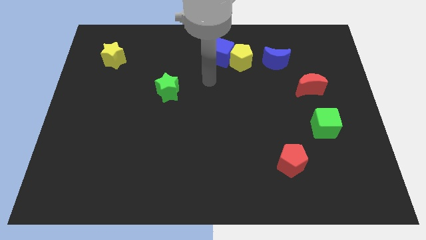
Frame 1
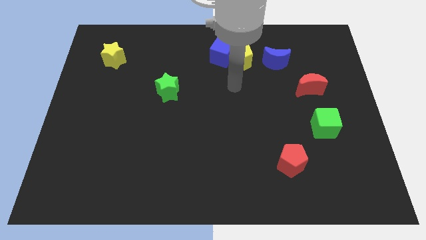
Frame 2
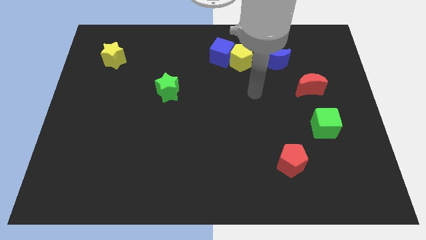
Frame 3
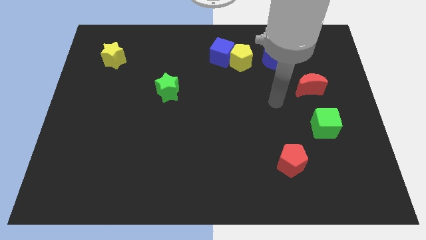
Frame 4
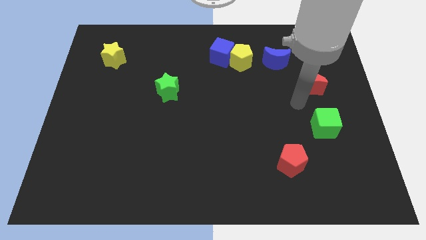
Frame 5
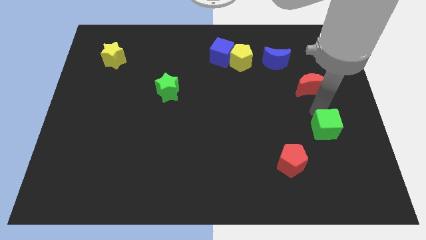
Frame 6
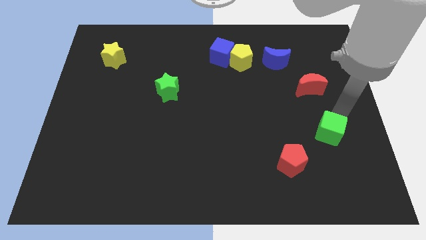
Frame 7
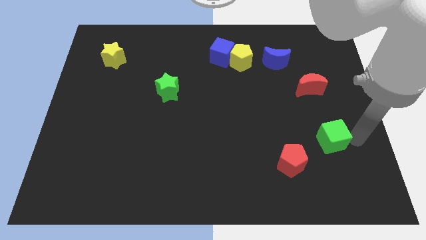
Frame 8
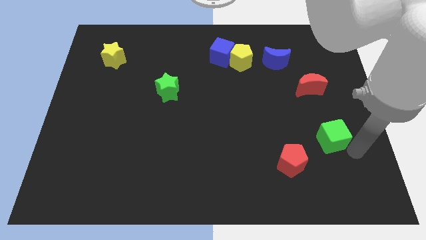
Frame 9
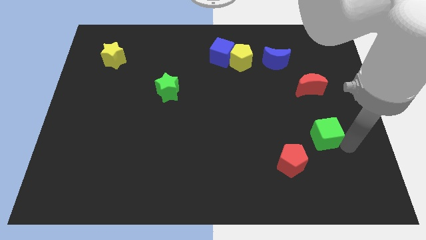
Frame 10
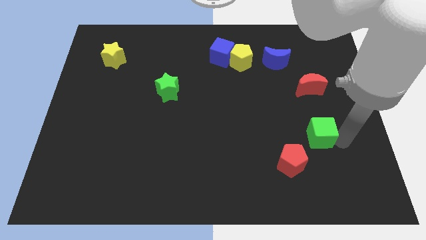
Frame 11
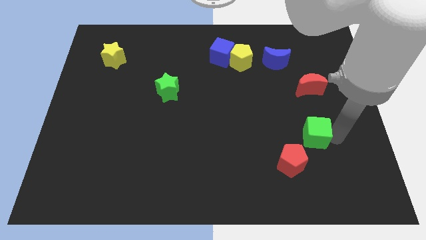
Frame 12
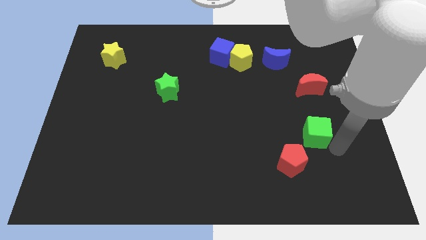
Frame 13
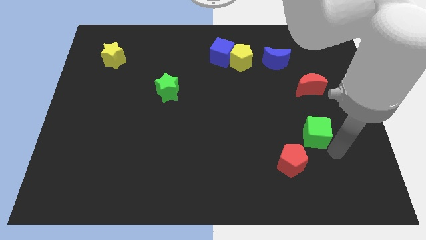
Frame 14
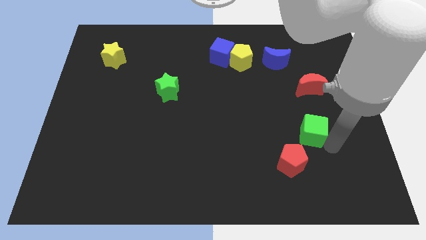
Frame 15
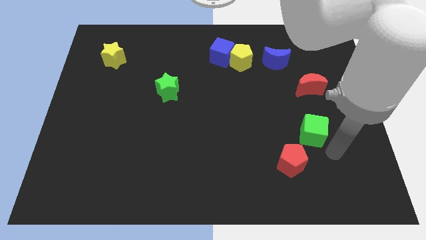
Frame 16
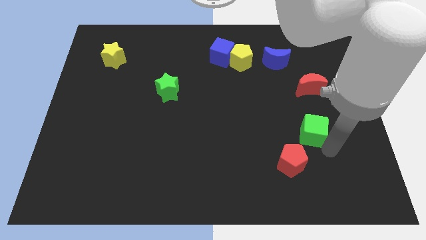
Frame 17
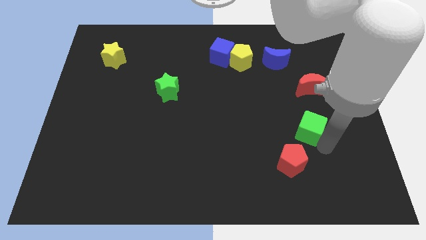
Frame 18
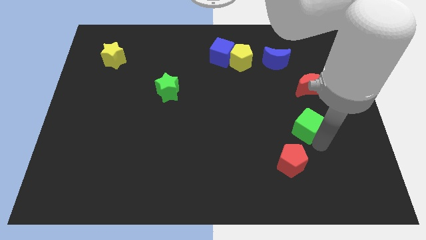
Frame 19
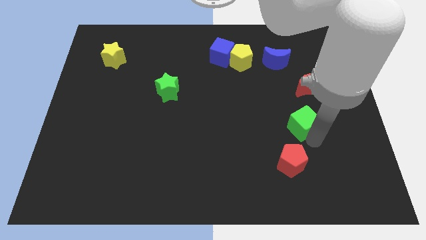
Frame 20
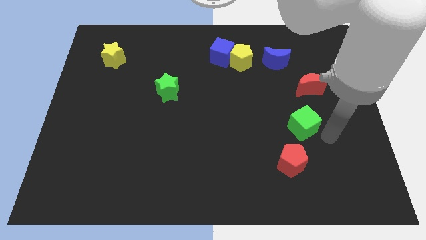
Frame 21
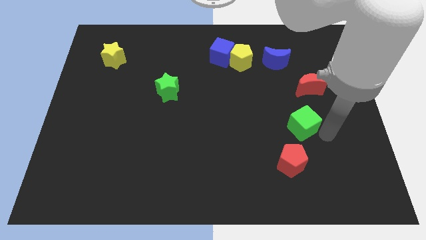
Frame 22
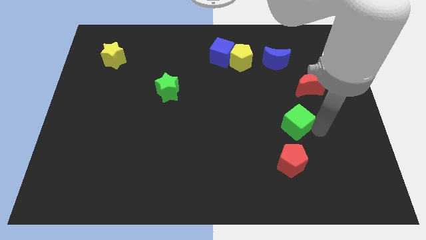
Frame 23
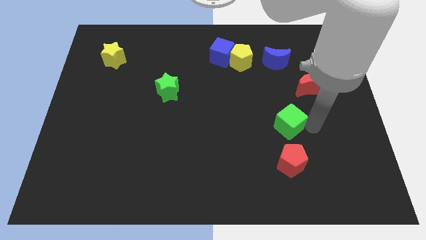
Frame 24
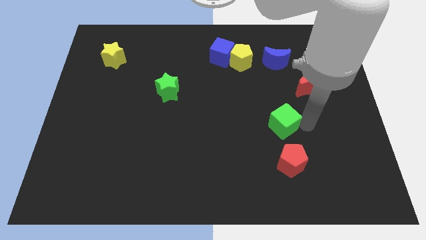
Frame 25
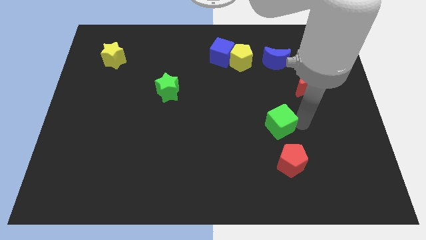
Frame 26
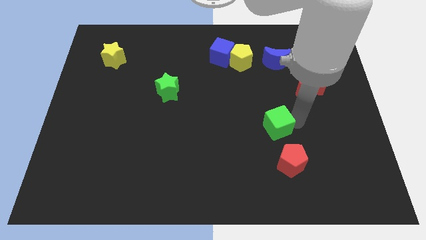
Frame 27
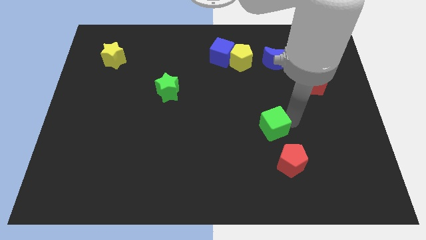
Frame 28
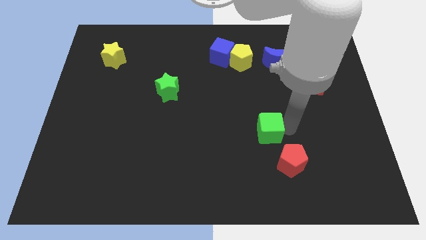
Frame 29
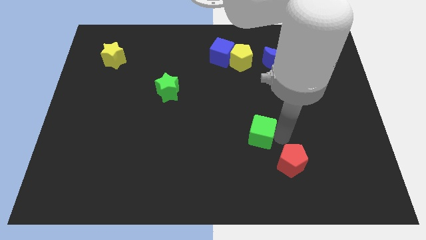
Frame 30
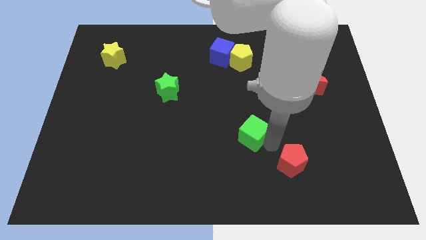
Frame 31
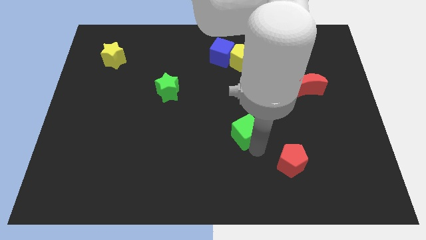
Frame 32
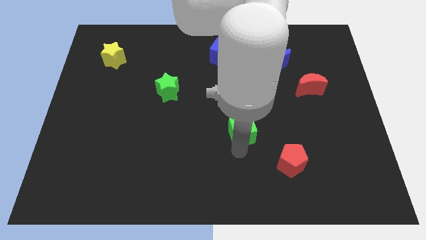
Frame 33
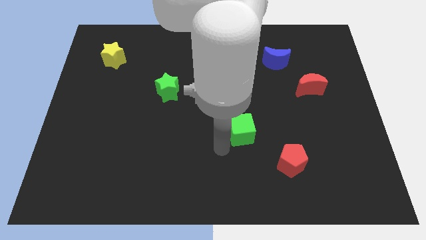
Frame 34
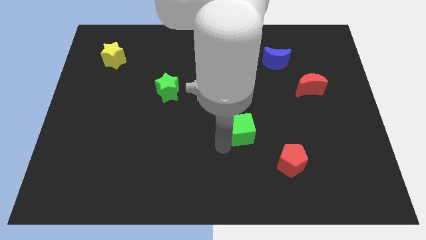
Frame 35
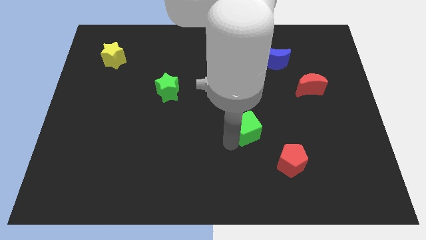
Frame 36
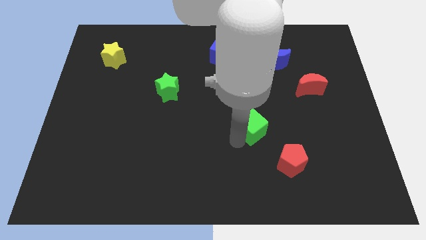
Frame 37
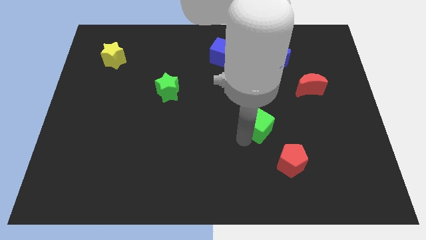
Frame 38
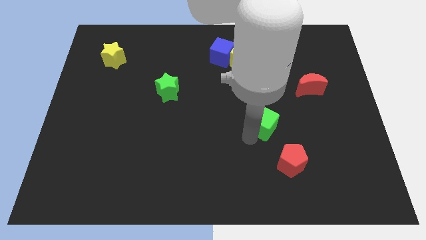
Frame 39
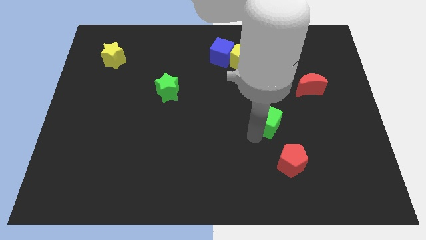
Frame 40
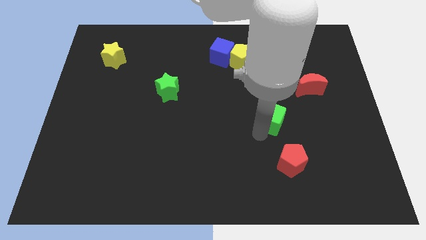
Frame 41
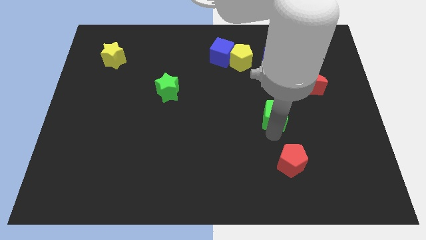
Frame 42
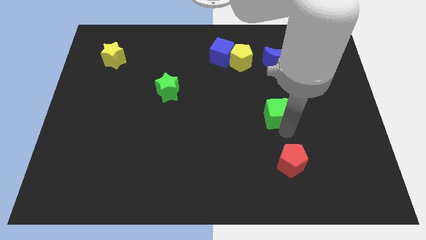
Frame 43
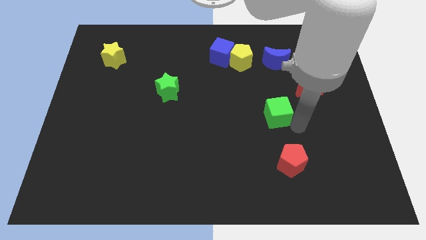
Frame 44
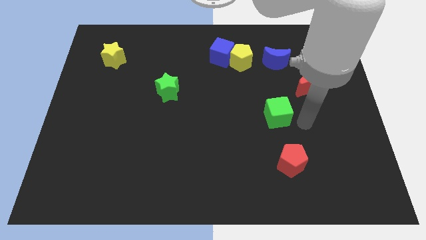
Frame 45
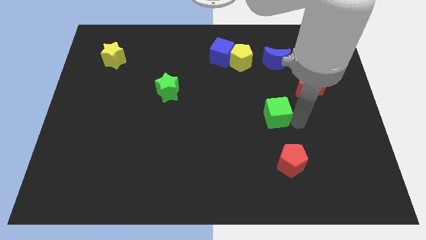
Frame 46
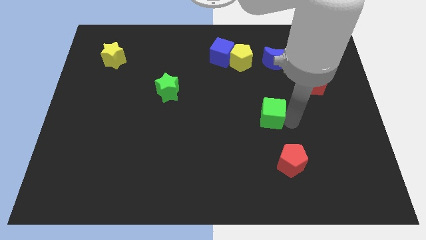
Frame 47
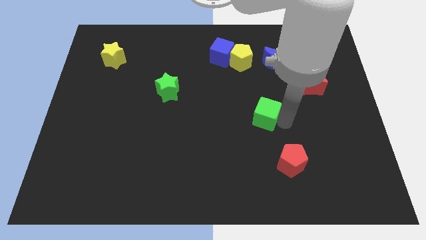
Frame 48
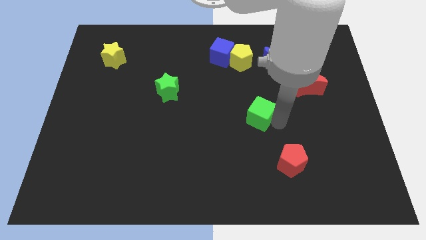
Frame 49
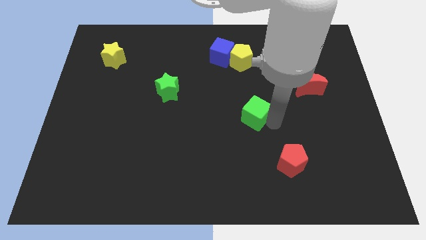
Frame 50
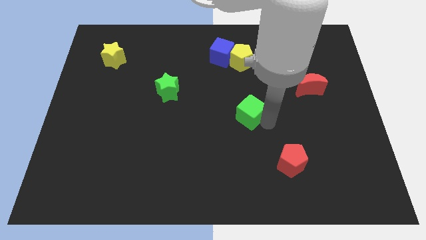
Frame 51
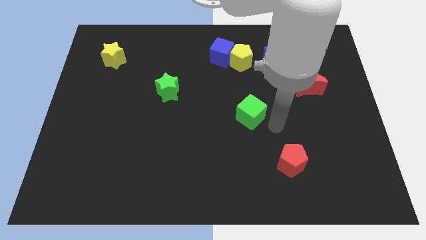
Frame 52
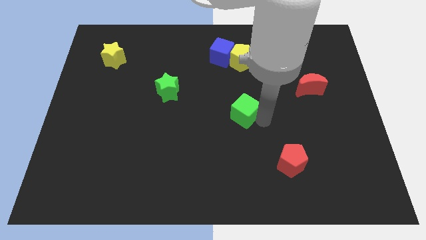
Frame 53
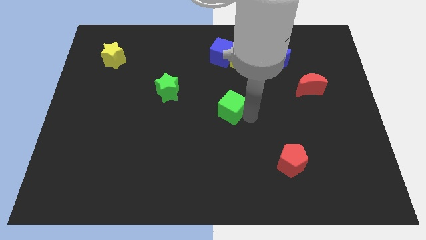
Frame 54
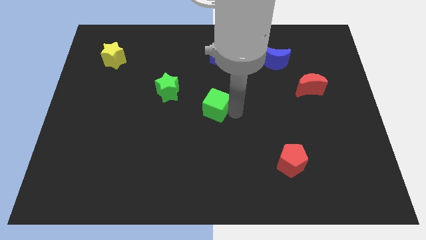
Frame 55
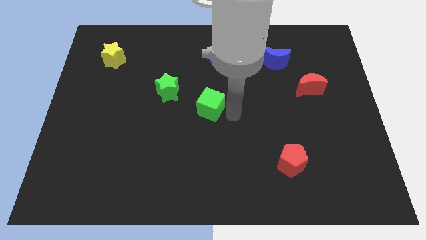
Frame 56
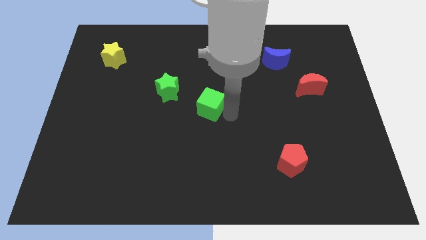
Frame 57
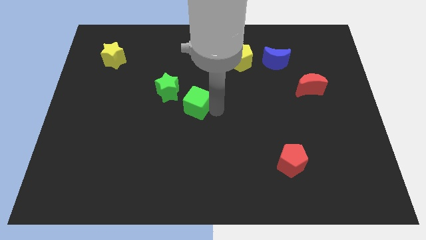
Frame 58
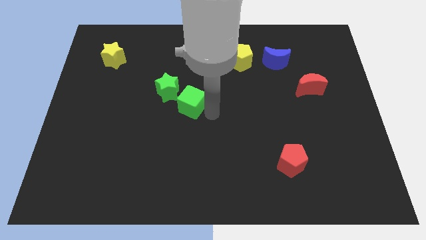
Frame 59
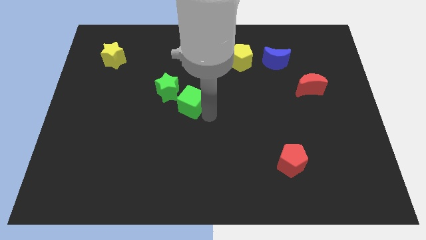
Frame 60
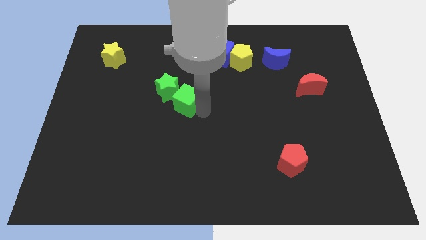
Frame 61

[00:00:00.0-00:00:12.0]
push the green cube next to the green star

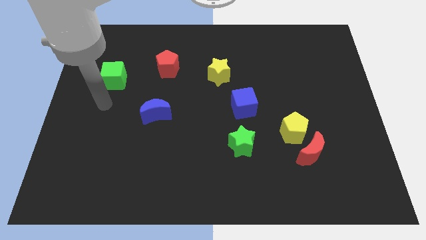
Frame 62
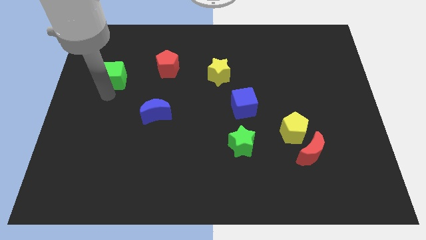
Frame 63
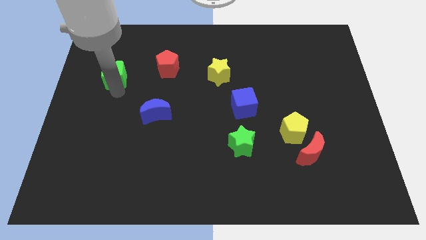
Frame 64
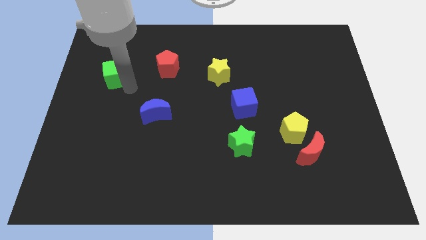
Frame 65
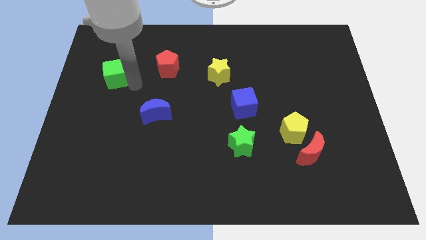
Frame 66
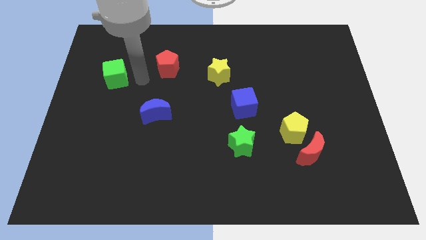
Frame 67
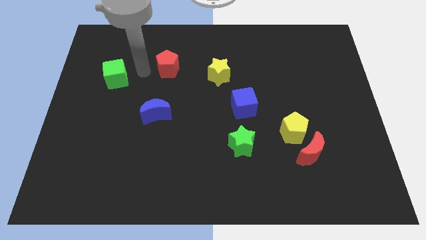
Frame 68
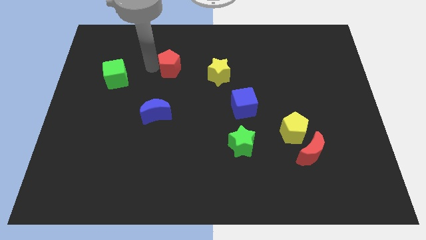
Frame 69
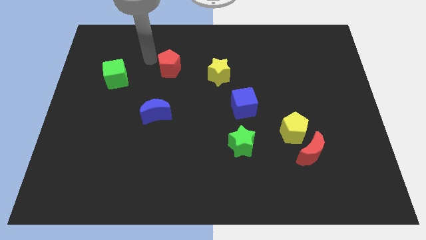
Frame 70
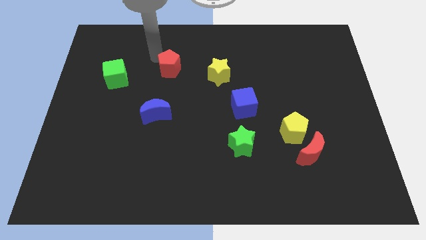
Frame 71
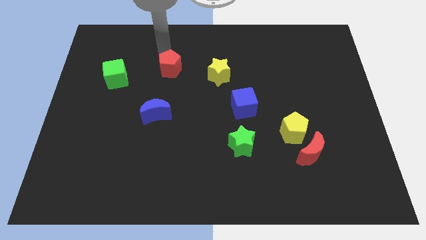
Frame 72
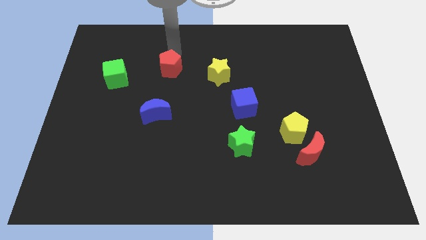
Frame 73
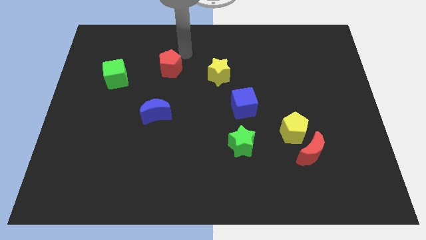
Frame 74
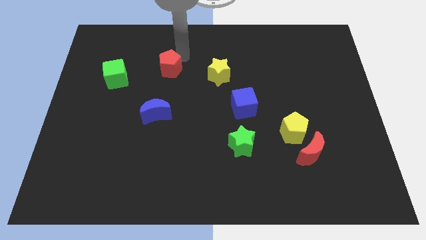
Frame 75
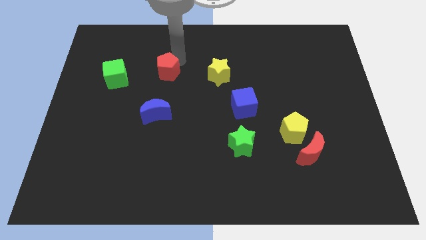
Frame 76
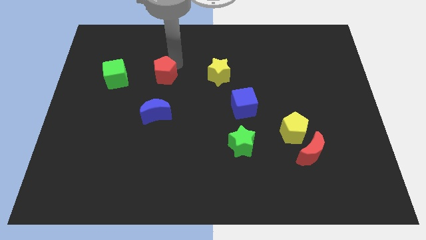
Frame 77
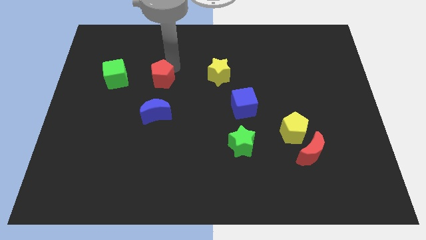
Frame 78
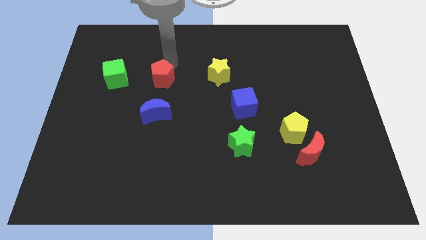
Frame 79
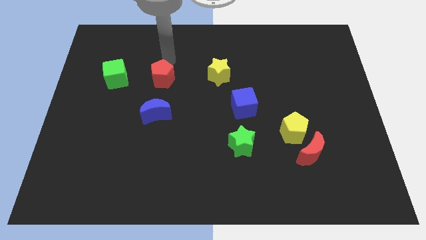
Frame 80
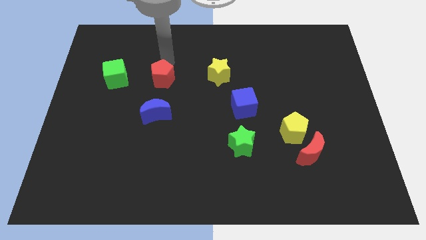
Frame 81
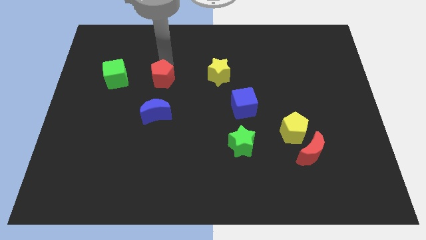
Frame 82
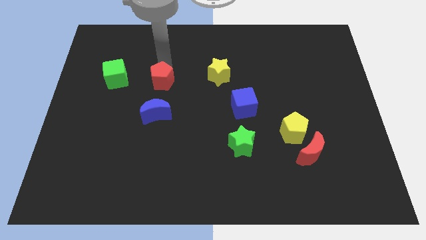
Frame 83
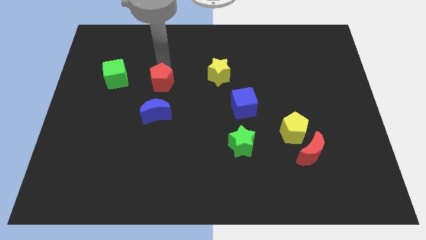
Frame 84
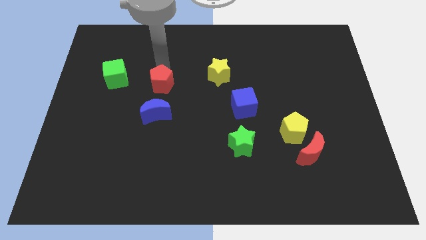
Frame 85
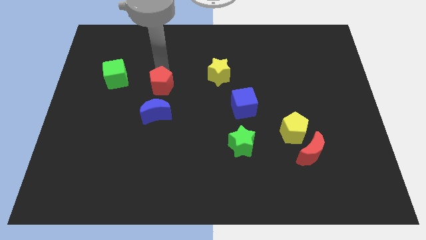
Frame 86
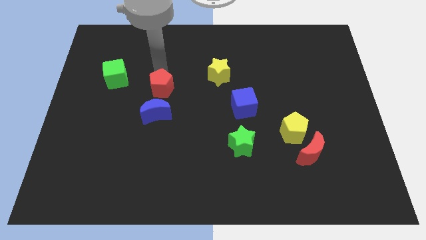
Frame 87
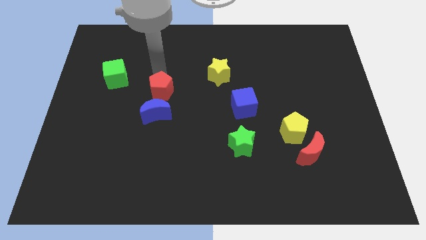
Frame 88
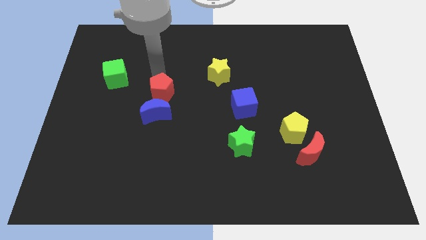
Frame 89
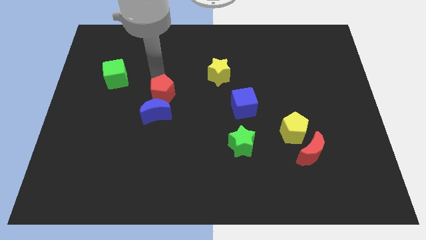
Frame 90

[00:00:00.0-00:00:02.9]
move the red pentagon close to the blue moon
